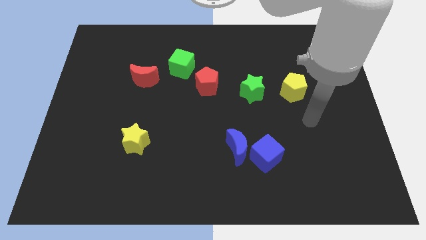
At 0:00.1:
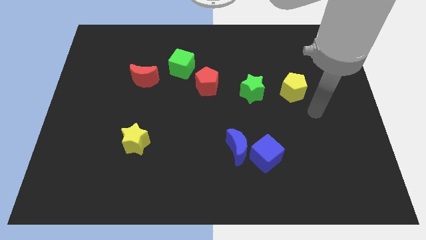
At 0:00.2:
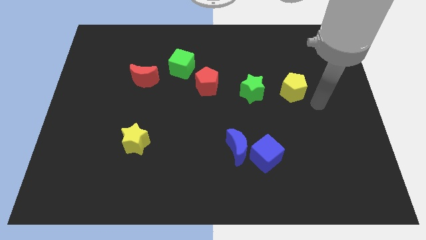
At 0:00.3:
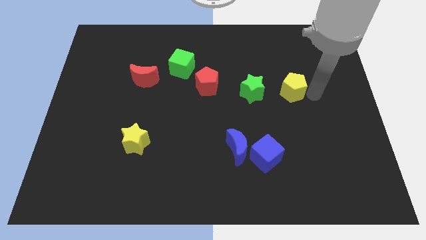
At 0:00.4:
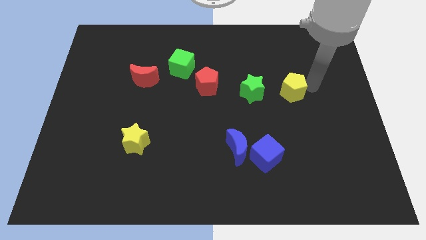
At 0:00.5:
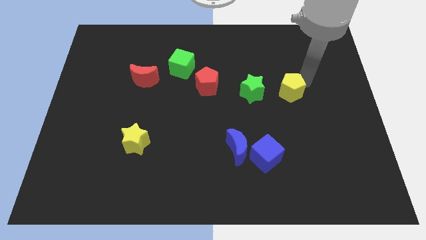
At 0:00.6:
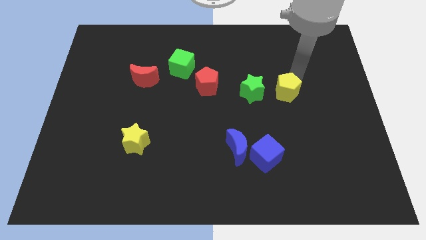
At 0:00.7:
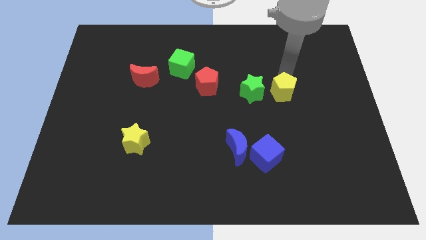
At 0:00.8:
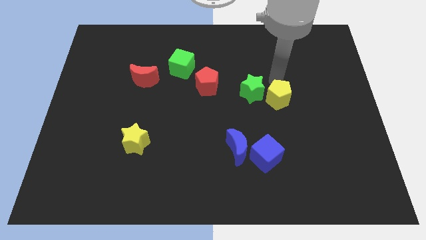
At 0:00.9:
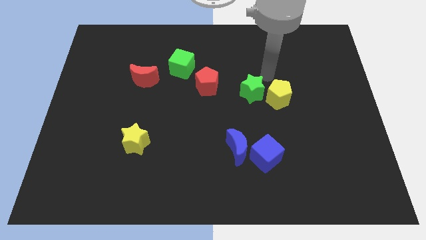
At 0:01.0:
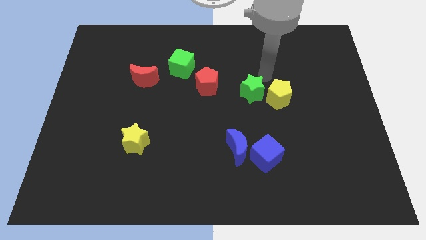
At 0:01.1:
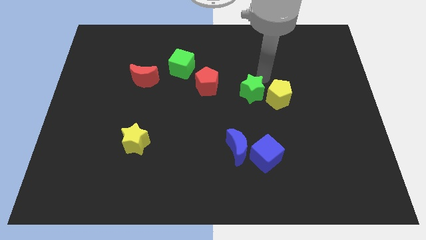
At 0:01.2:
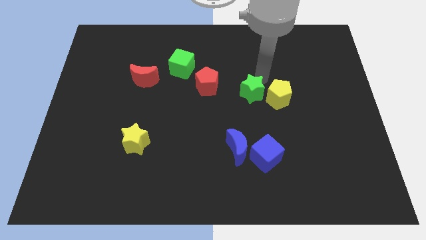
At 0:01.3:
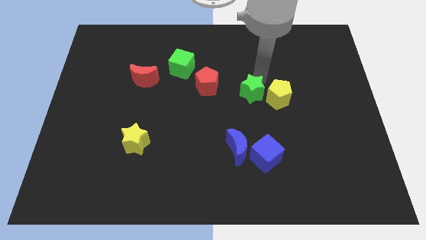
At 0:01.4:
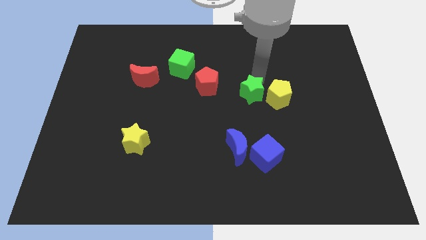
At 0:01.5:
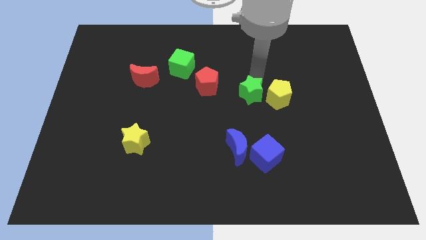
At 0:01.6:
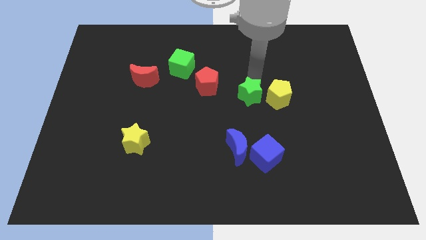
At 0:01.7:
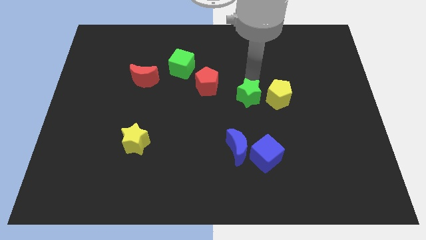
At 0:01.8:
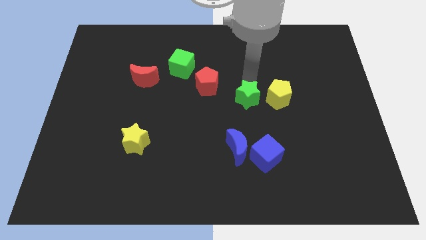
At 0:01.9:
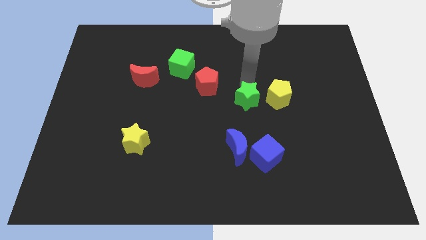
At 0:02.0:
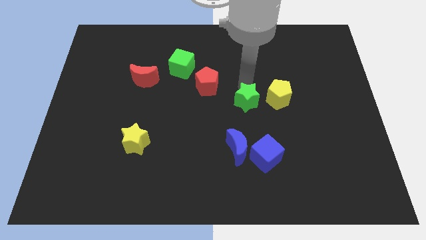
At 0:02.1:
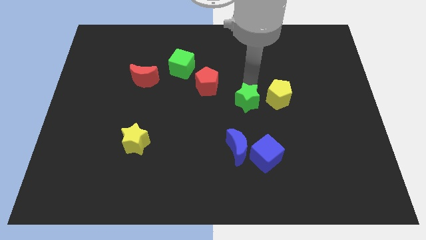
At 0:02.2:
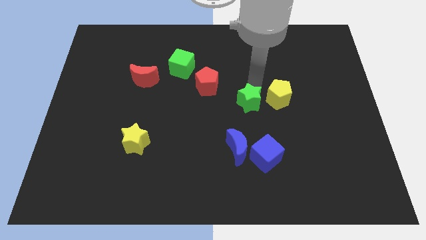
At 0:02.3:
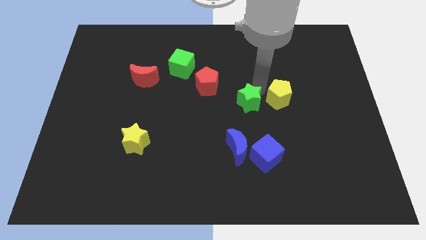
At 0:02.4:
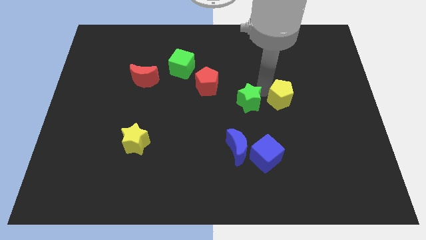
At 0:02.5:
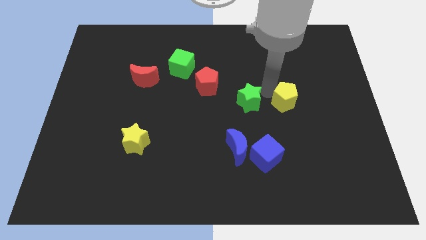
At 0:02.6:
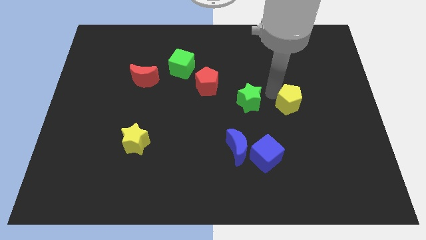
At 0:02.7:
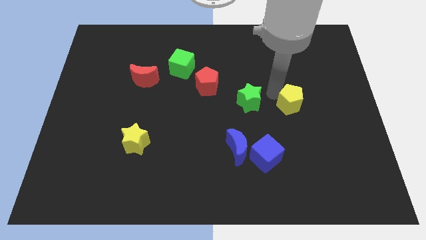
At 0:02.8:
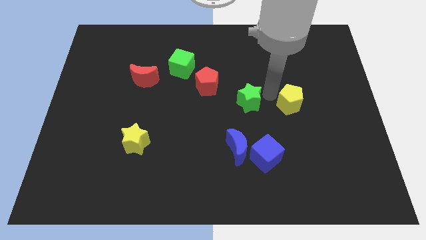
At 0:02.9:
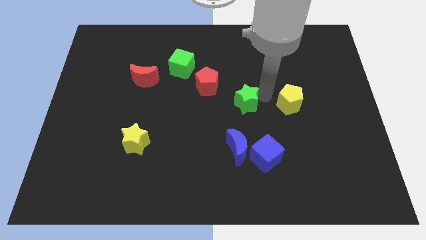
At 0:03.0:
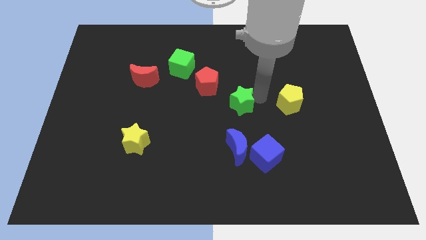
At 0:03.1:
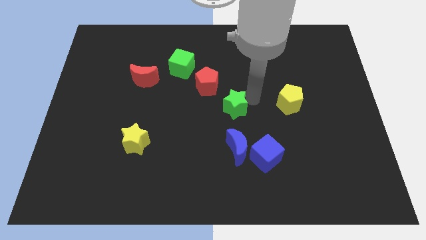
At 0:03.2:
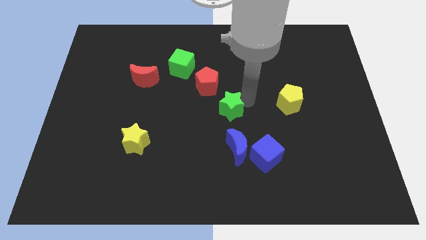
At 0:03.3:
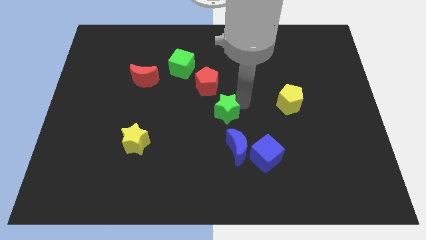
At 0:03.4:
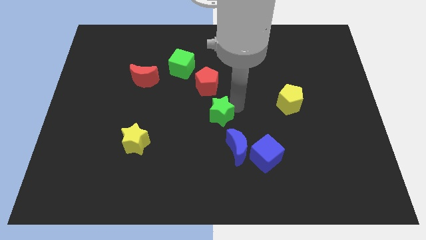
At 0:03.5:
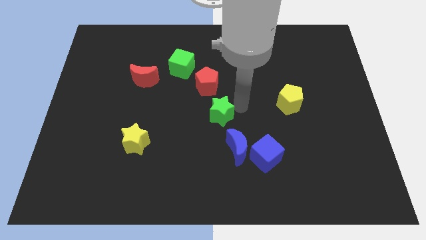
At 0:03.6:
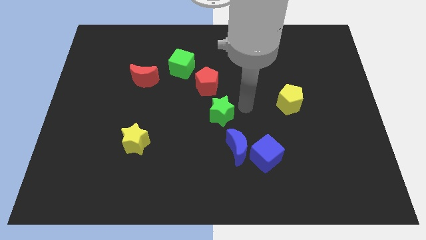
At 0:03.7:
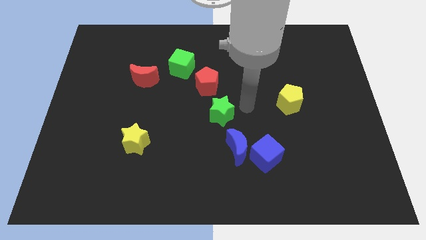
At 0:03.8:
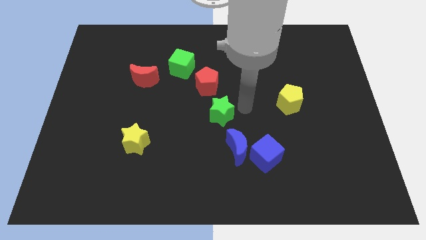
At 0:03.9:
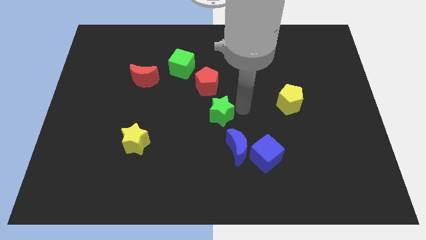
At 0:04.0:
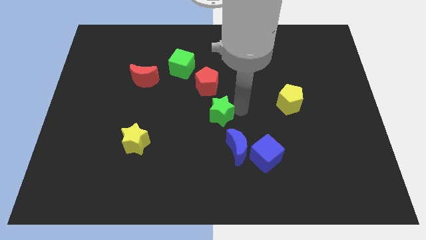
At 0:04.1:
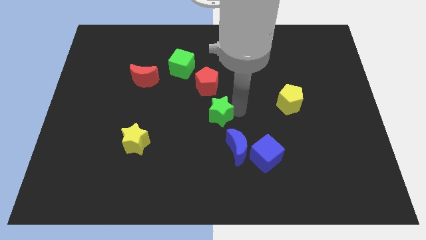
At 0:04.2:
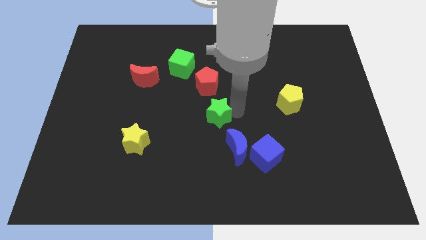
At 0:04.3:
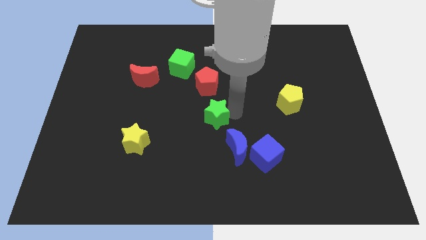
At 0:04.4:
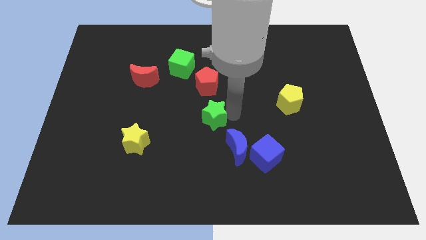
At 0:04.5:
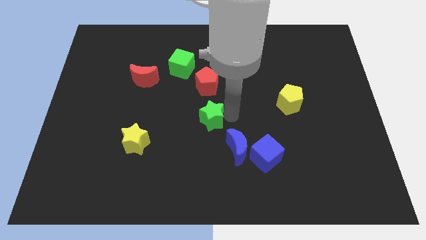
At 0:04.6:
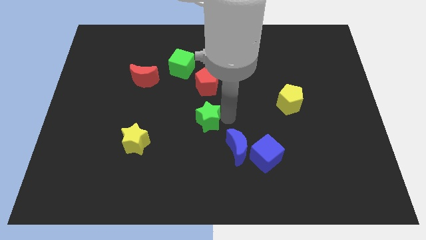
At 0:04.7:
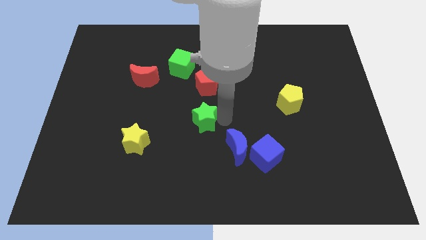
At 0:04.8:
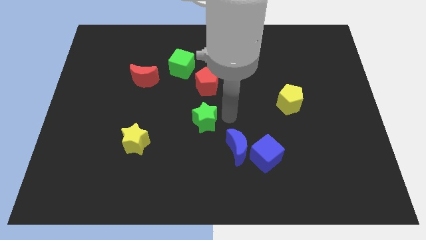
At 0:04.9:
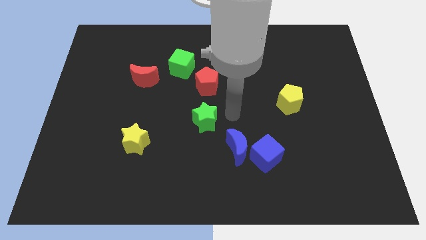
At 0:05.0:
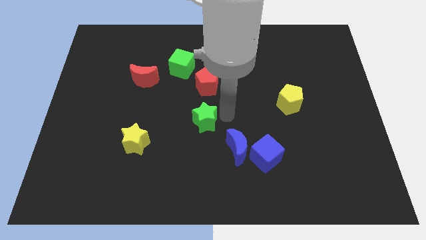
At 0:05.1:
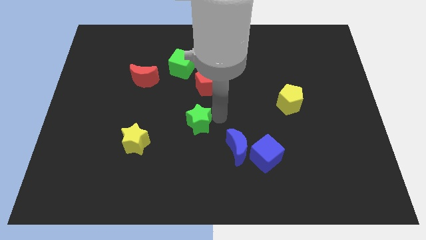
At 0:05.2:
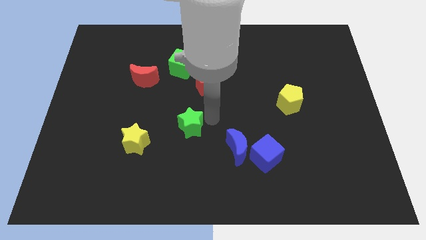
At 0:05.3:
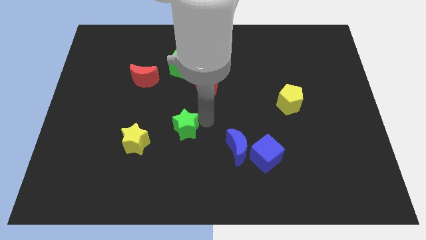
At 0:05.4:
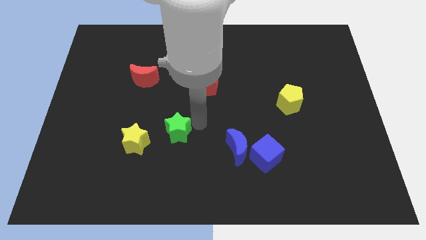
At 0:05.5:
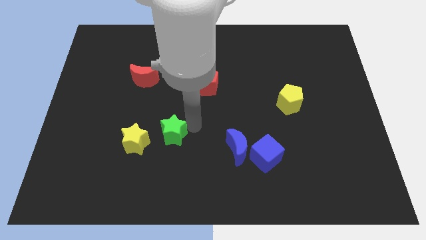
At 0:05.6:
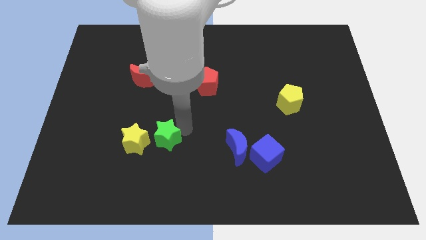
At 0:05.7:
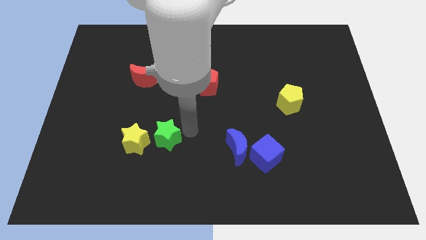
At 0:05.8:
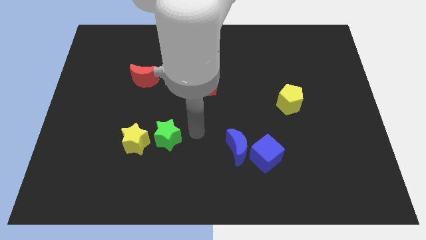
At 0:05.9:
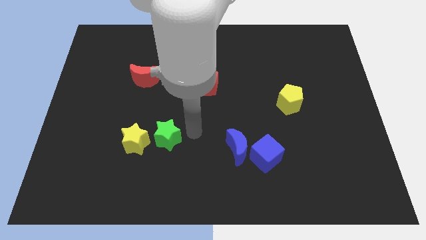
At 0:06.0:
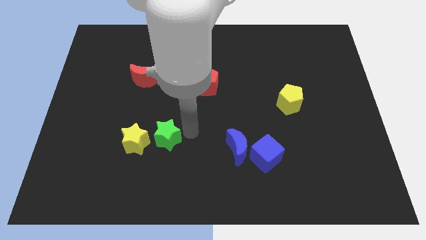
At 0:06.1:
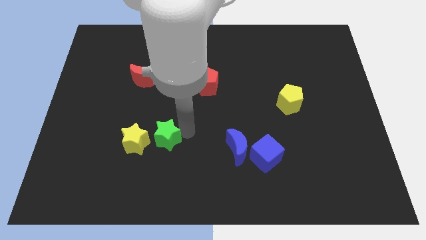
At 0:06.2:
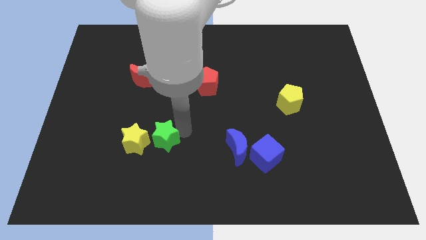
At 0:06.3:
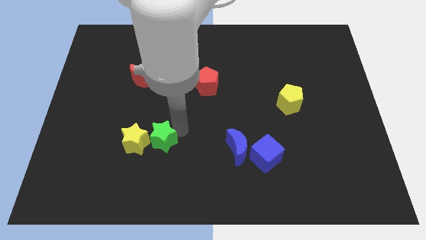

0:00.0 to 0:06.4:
push the green star close to the yellow star

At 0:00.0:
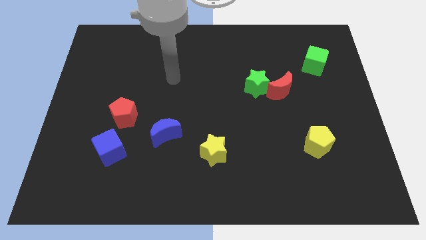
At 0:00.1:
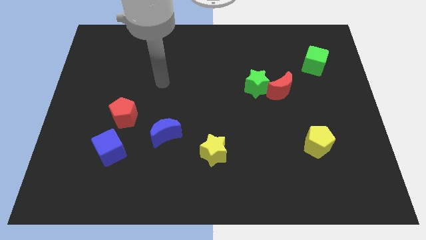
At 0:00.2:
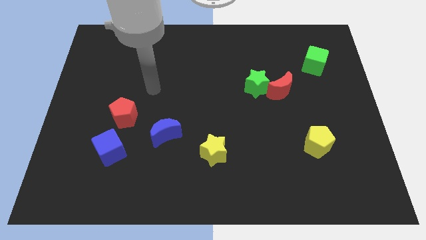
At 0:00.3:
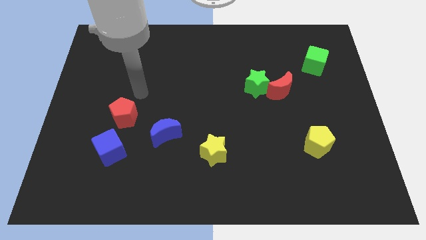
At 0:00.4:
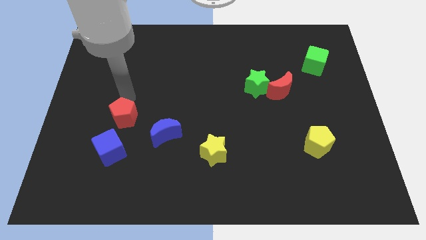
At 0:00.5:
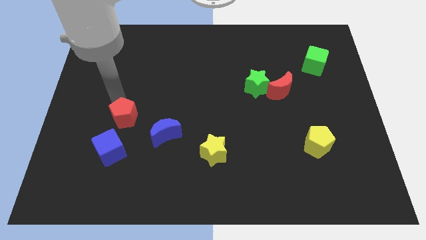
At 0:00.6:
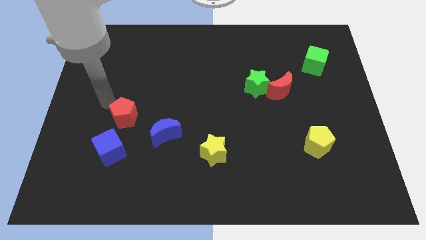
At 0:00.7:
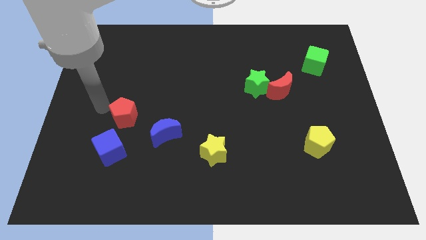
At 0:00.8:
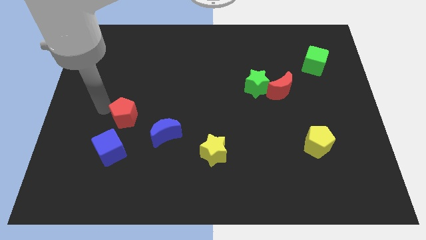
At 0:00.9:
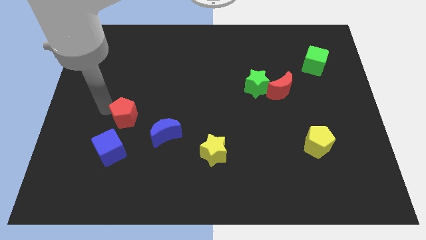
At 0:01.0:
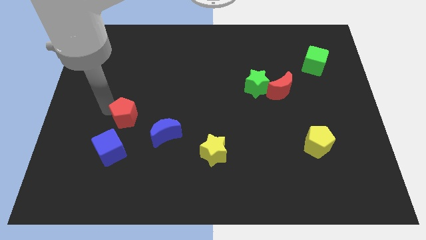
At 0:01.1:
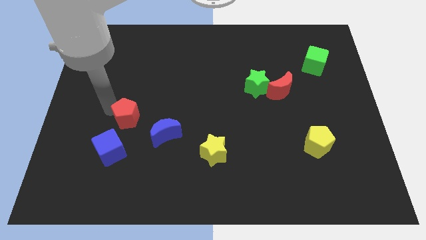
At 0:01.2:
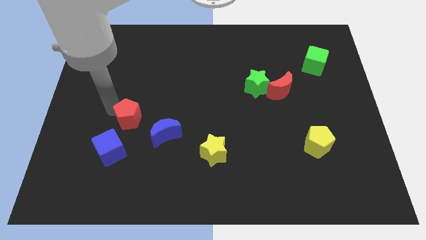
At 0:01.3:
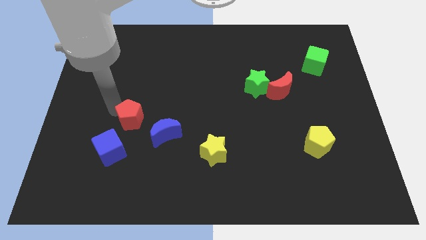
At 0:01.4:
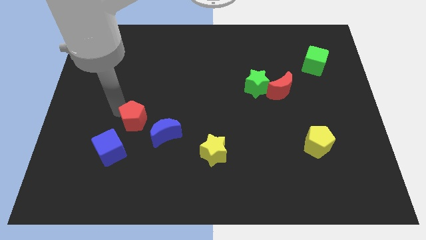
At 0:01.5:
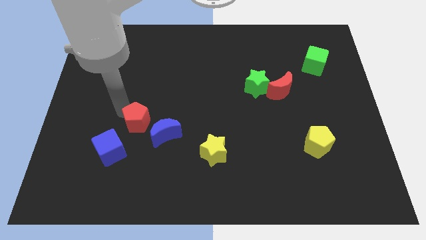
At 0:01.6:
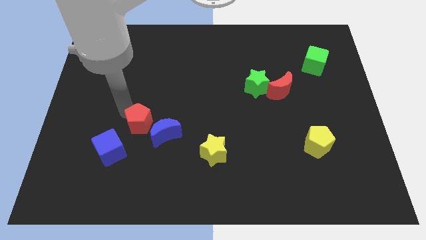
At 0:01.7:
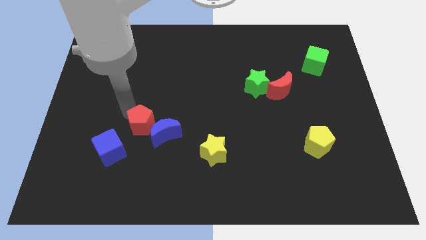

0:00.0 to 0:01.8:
push the red pentagon towards the blue moon
